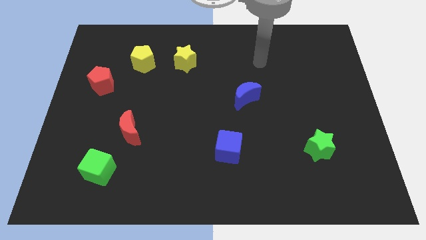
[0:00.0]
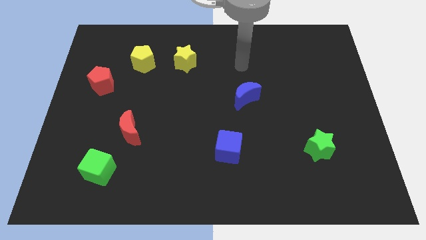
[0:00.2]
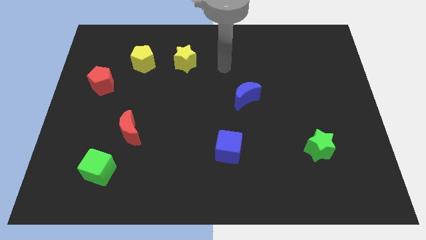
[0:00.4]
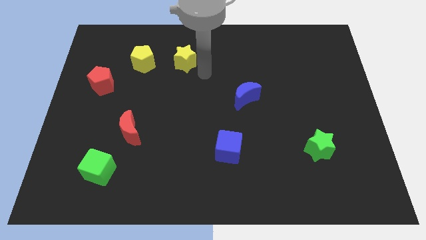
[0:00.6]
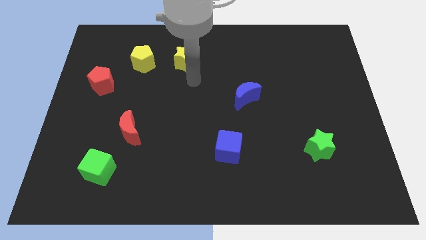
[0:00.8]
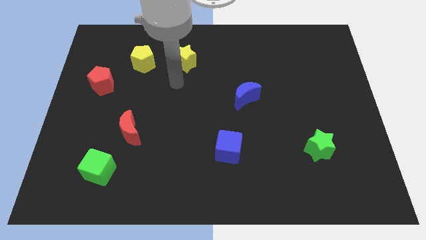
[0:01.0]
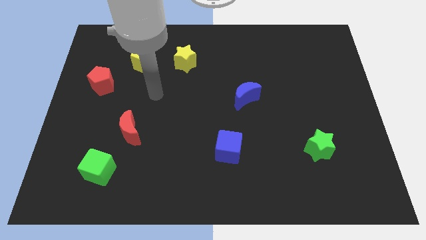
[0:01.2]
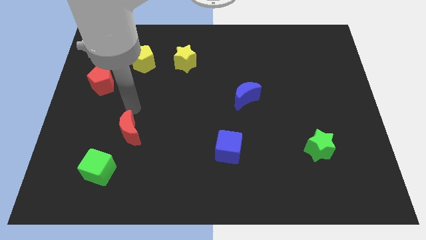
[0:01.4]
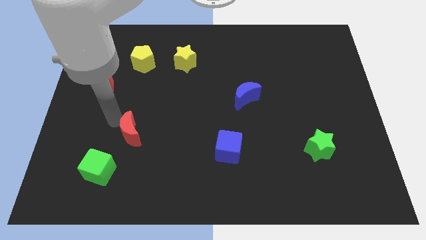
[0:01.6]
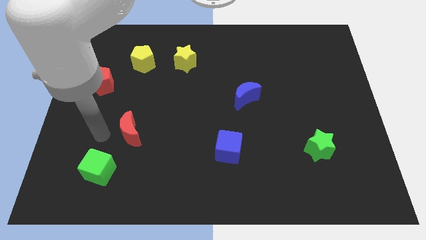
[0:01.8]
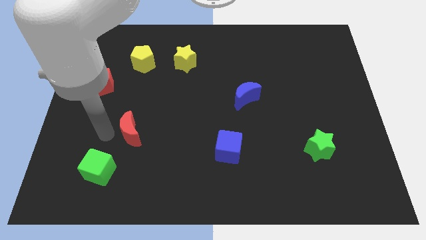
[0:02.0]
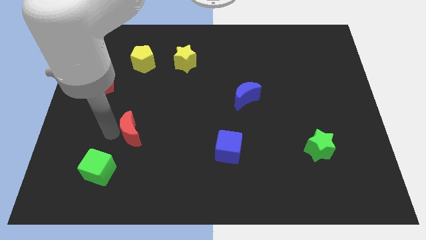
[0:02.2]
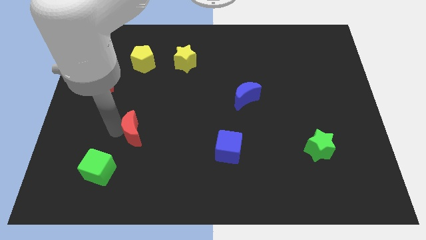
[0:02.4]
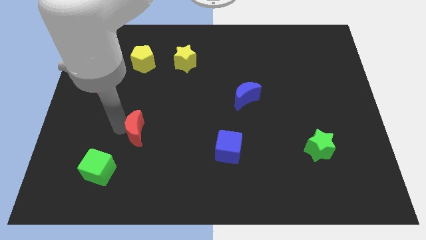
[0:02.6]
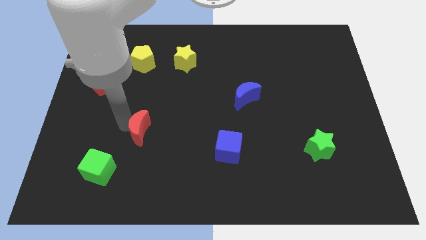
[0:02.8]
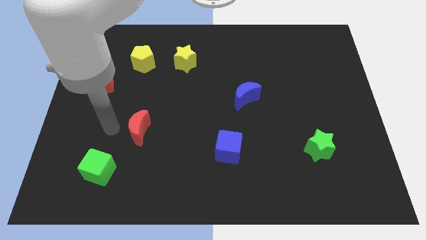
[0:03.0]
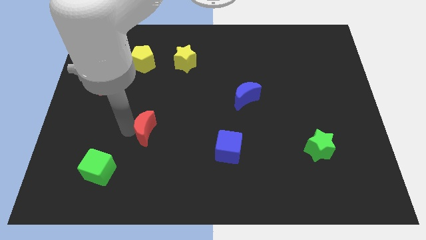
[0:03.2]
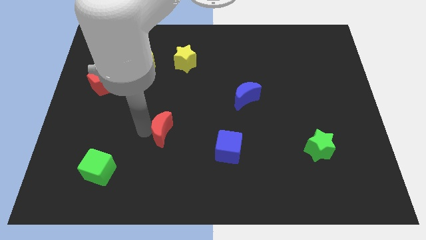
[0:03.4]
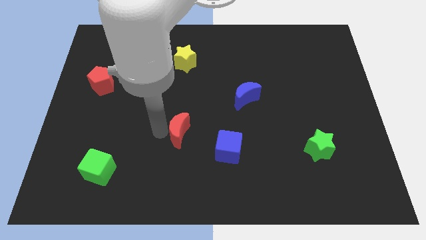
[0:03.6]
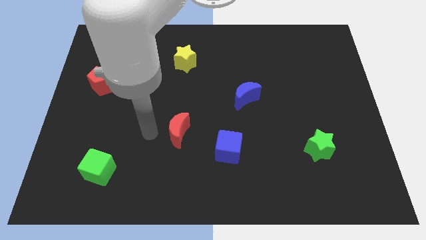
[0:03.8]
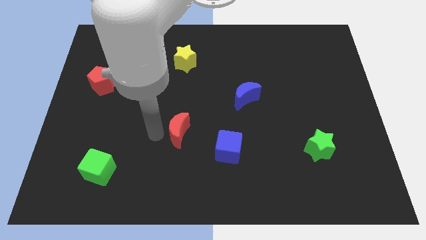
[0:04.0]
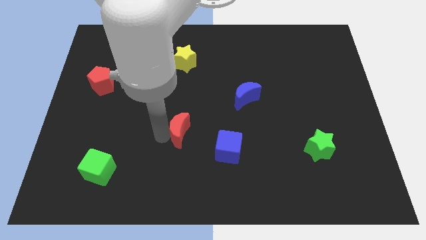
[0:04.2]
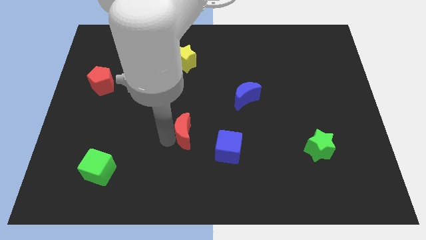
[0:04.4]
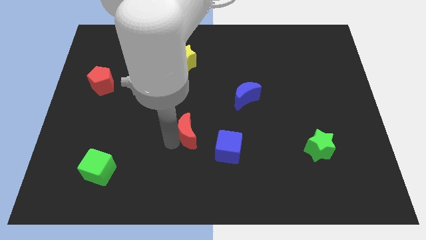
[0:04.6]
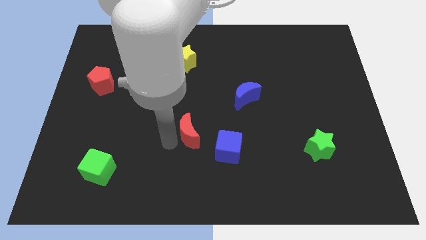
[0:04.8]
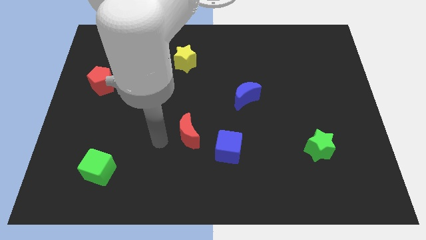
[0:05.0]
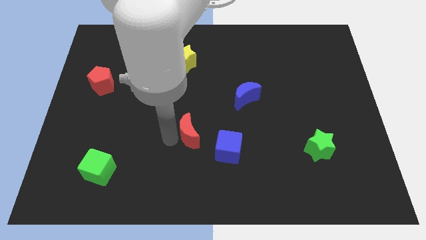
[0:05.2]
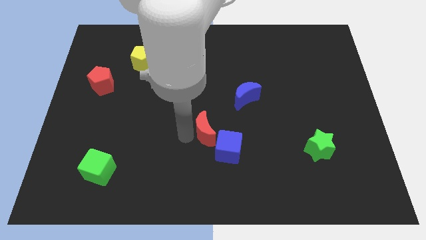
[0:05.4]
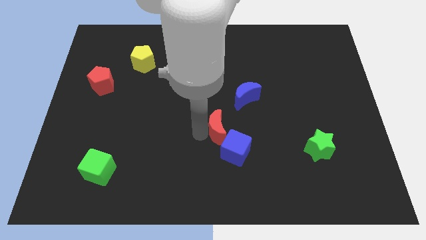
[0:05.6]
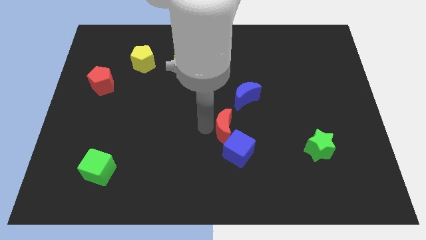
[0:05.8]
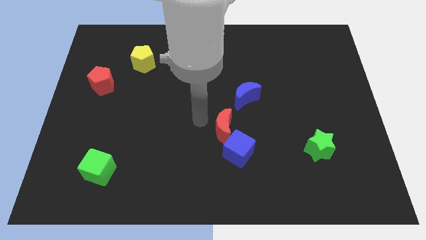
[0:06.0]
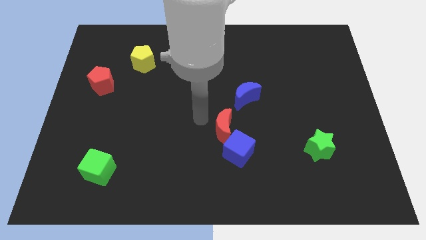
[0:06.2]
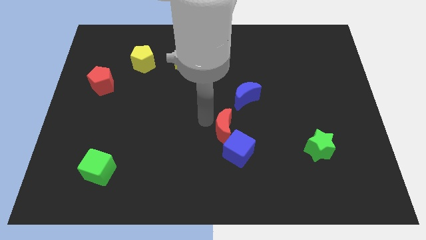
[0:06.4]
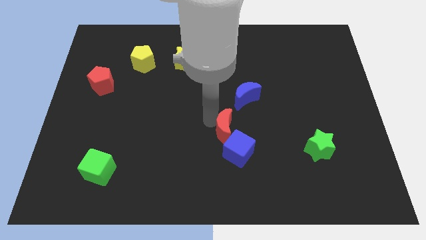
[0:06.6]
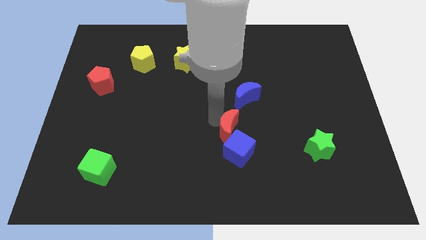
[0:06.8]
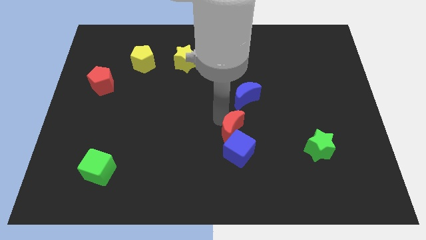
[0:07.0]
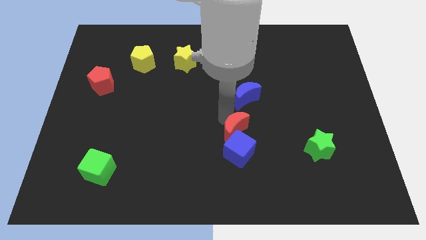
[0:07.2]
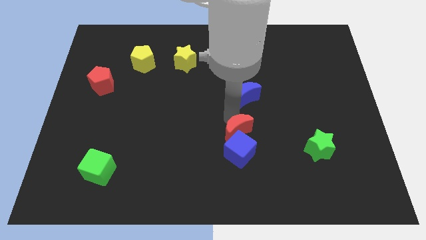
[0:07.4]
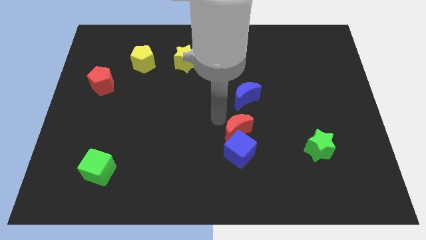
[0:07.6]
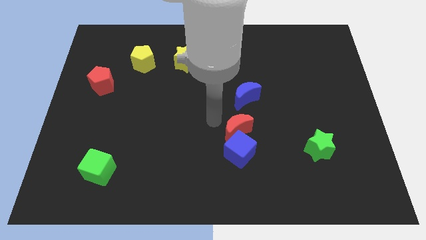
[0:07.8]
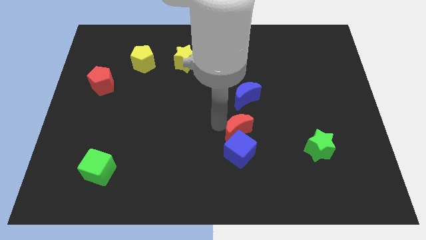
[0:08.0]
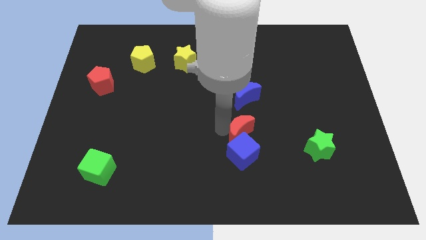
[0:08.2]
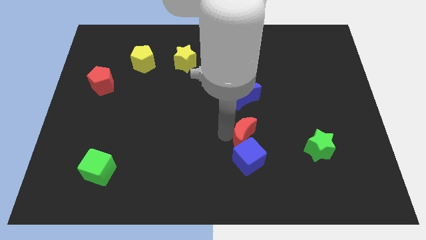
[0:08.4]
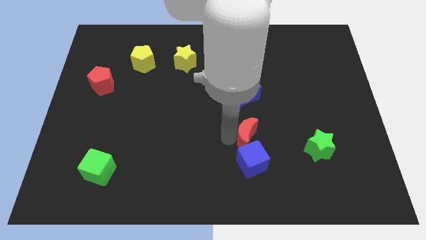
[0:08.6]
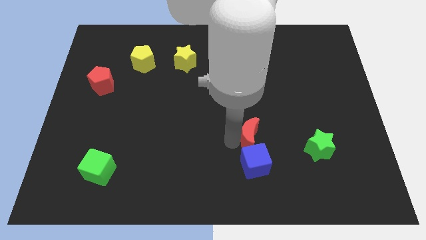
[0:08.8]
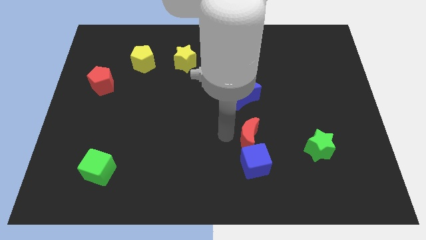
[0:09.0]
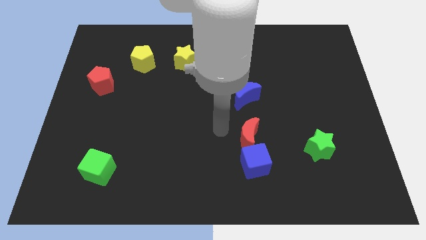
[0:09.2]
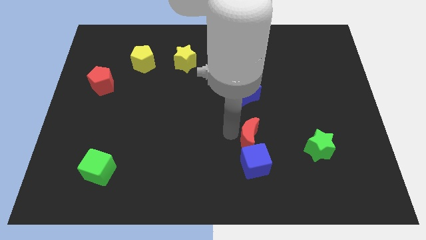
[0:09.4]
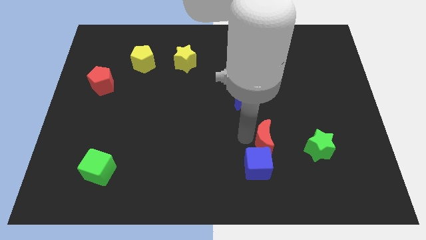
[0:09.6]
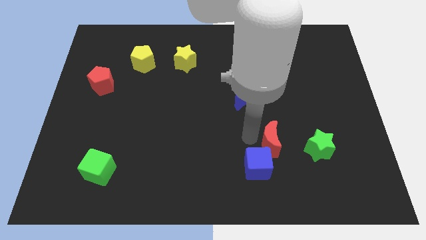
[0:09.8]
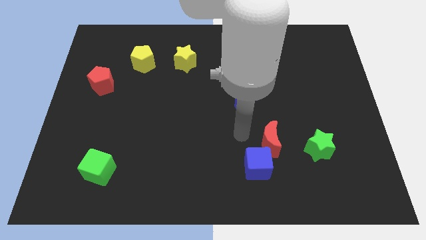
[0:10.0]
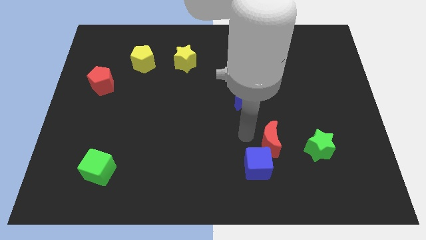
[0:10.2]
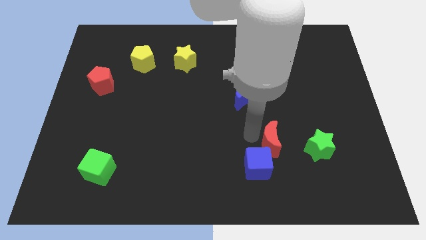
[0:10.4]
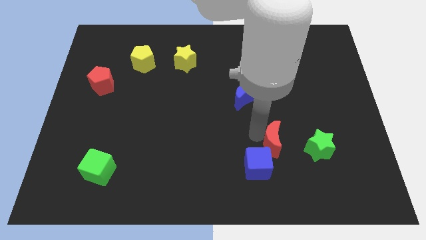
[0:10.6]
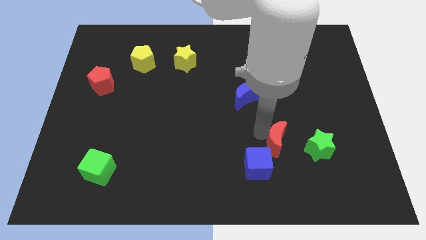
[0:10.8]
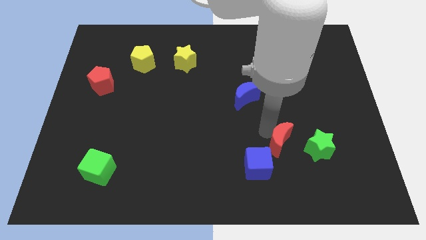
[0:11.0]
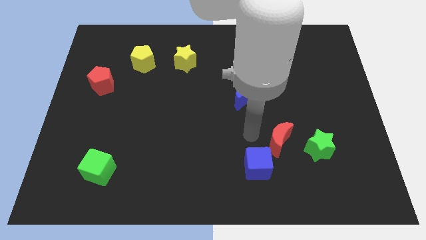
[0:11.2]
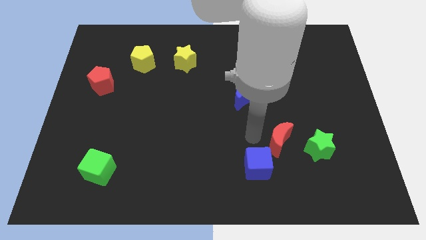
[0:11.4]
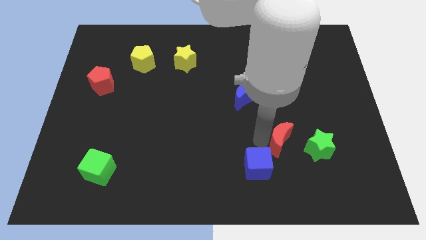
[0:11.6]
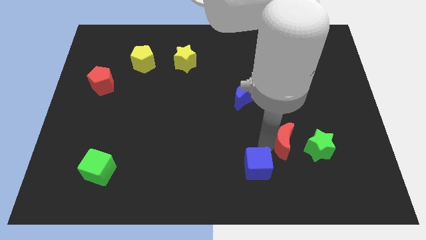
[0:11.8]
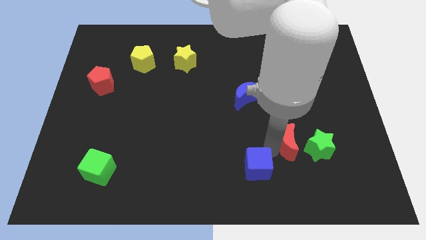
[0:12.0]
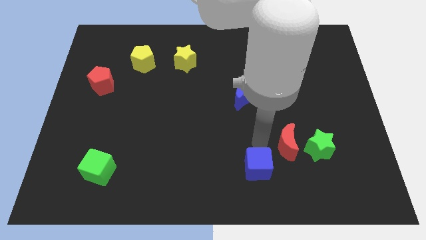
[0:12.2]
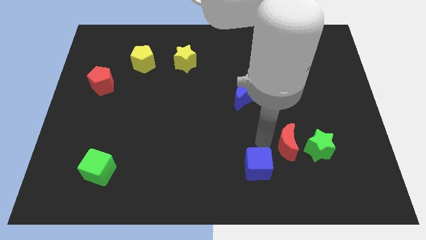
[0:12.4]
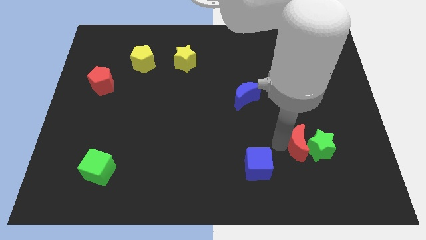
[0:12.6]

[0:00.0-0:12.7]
slide the red moon to the green star
